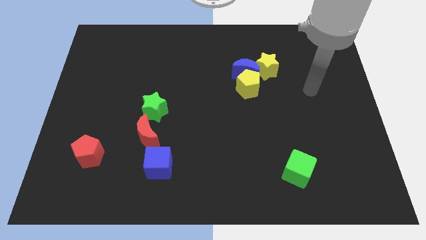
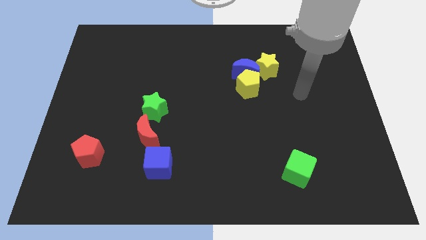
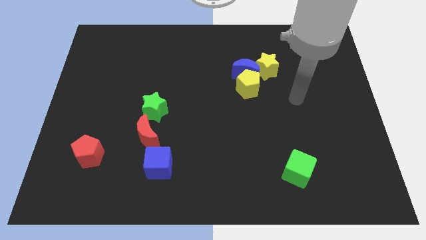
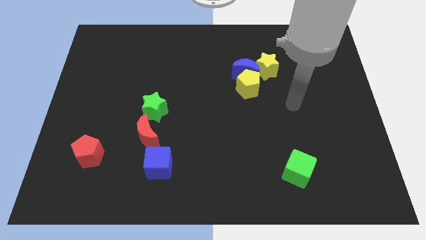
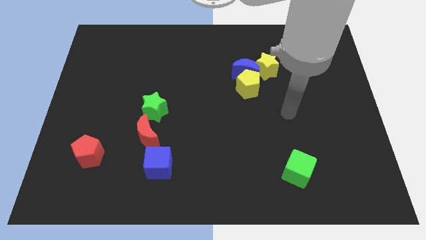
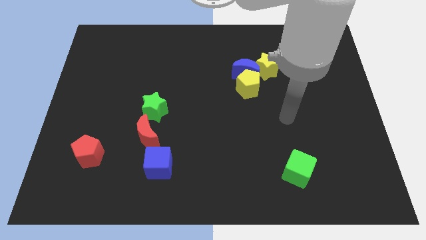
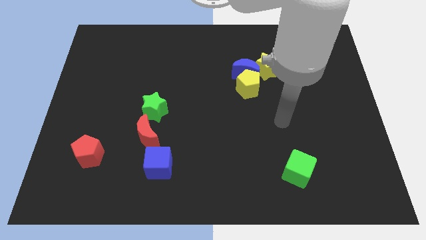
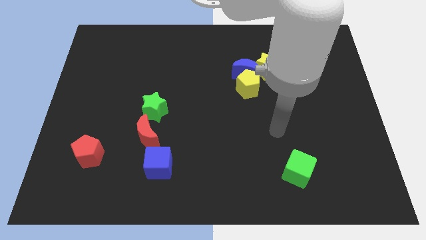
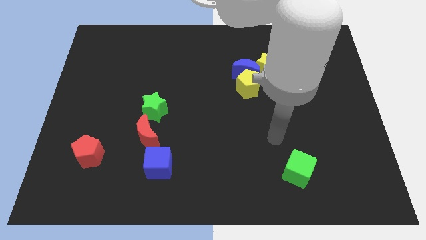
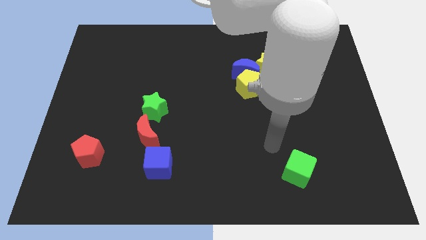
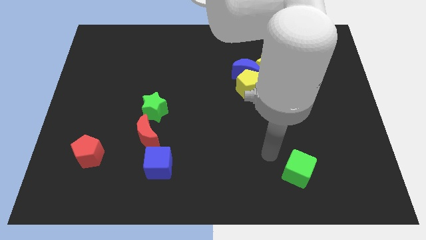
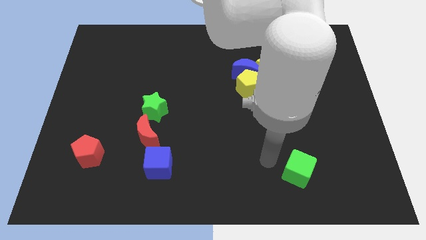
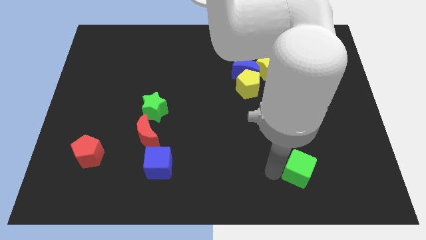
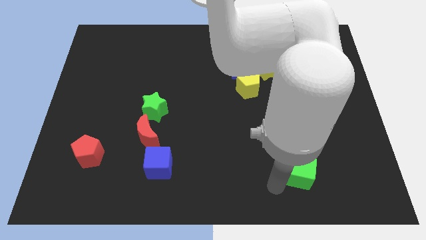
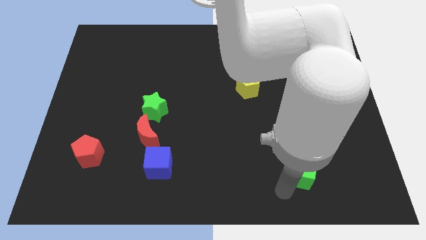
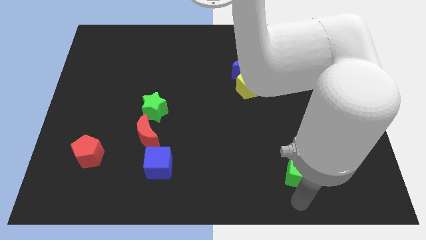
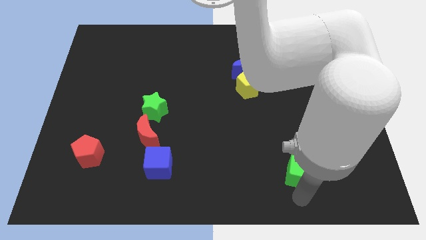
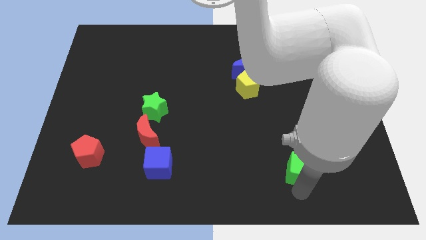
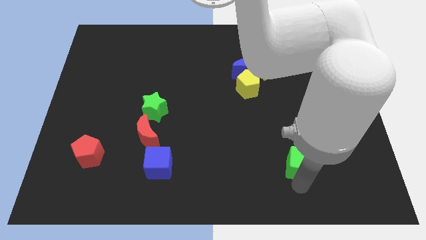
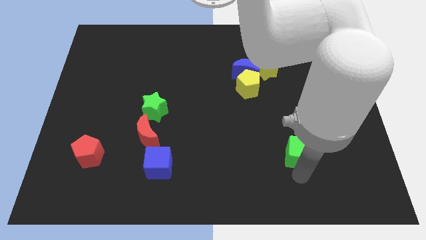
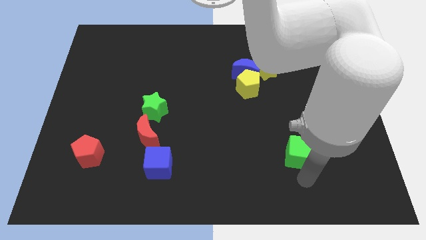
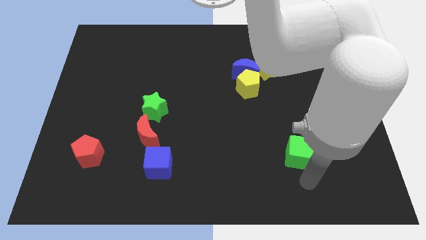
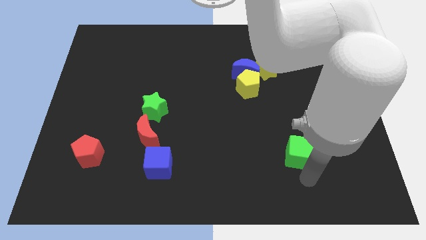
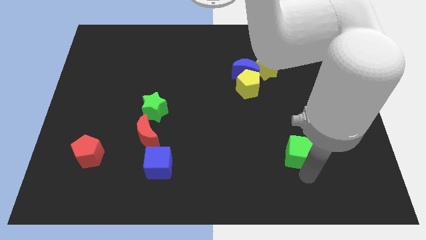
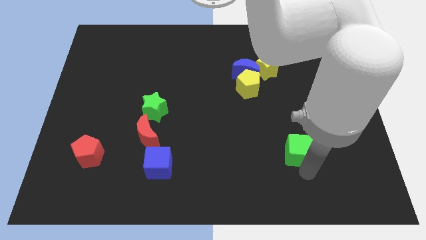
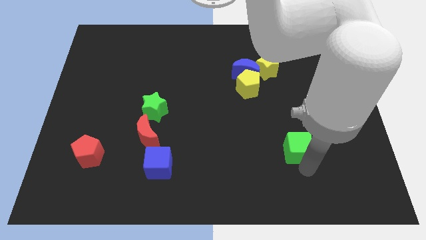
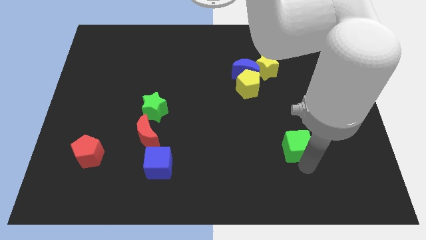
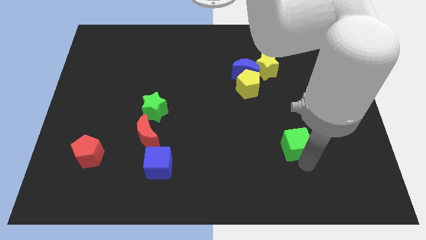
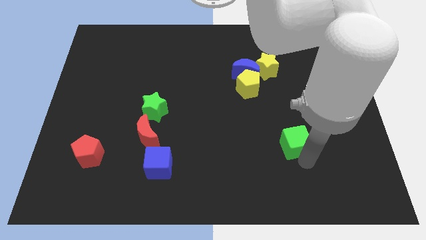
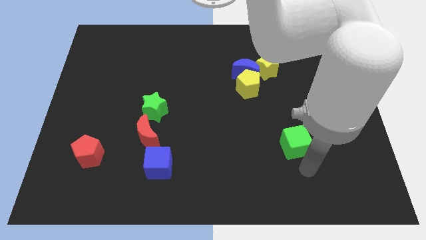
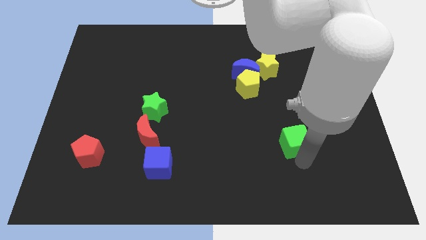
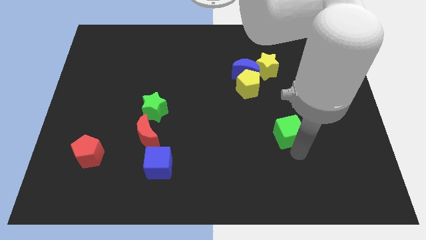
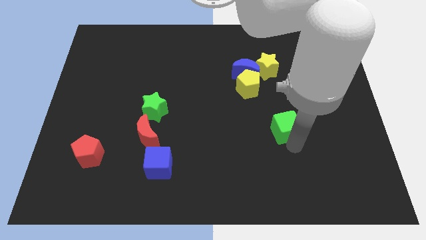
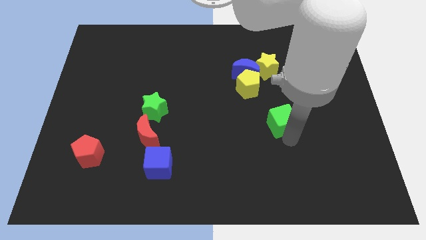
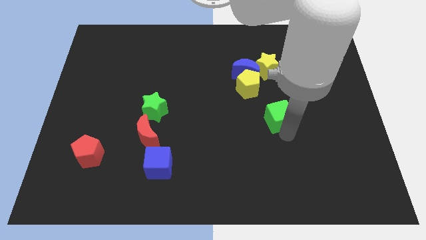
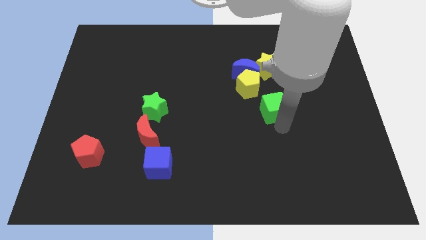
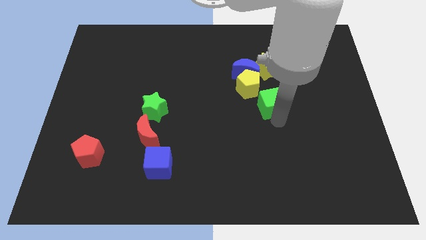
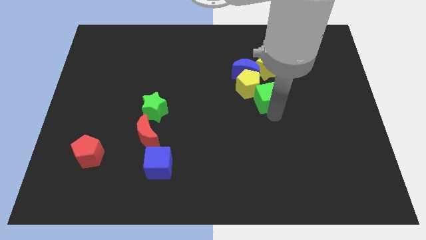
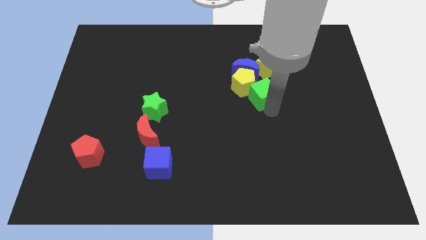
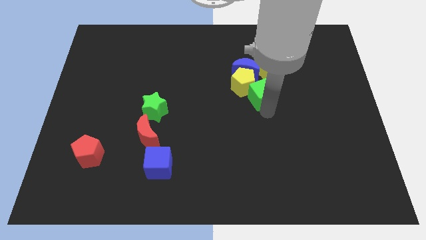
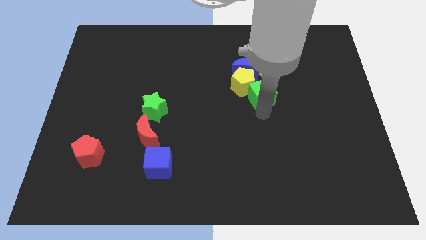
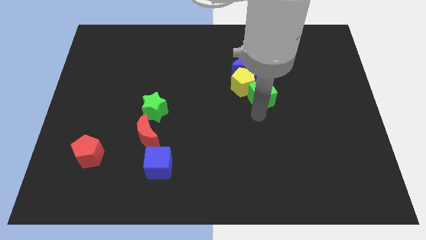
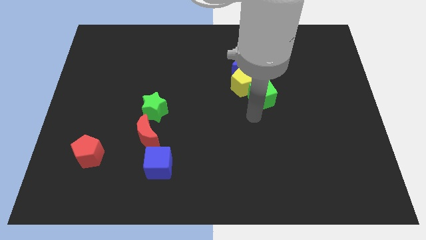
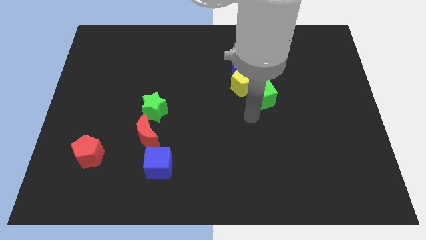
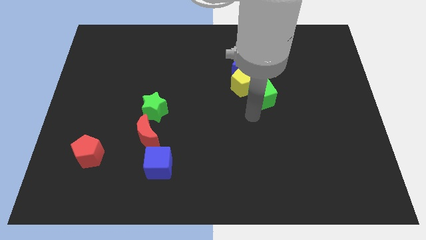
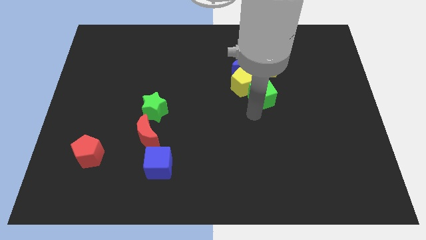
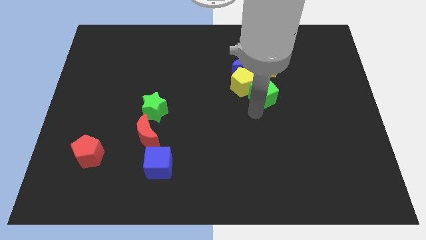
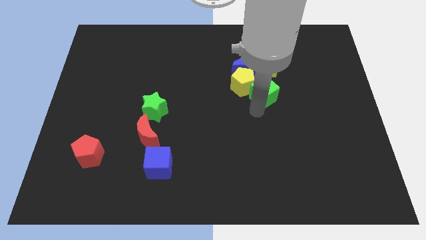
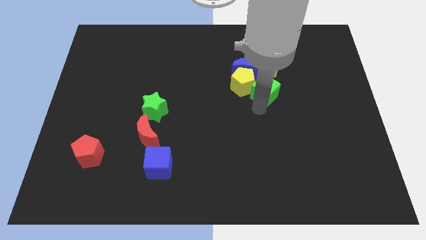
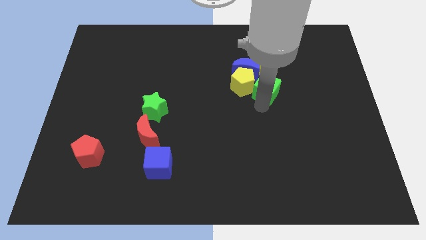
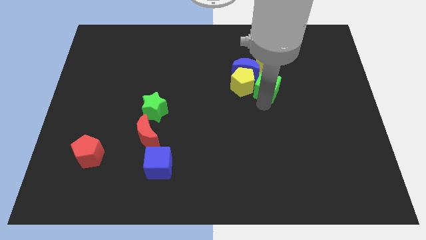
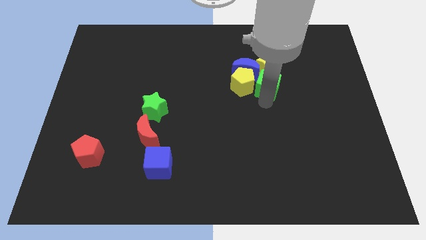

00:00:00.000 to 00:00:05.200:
move the green cube next to the yellow star

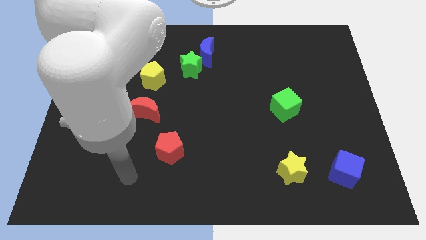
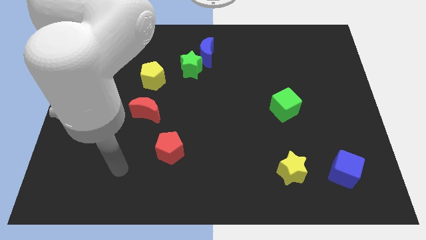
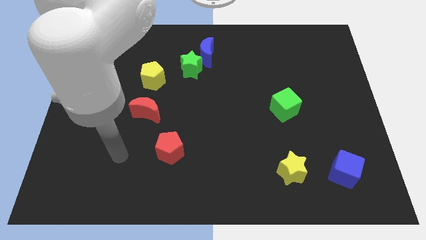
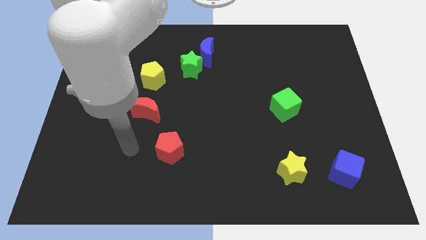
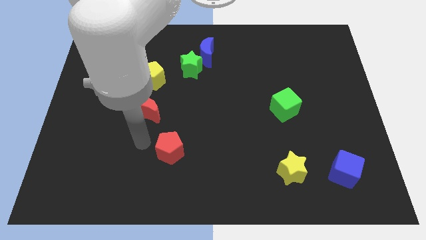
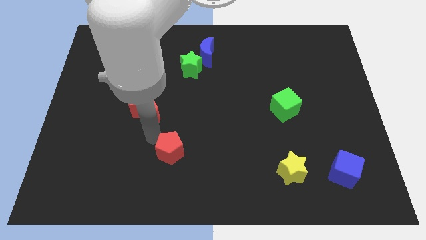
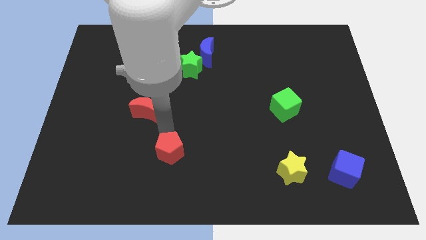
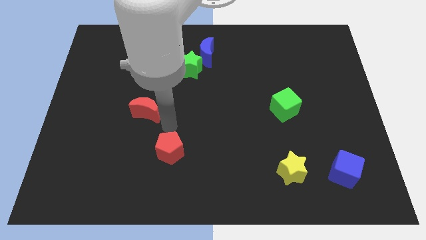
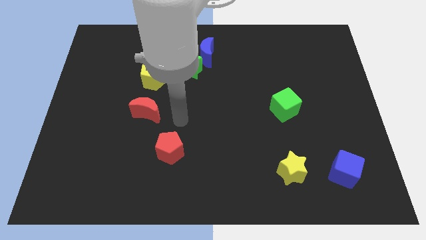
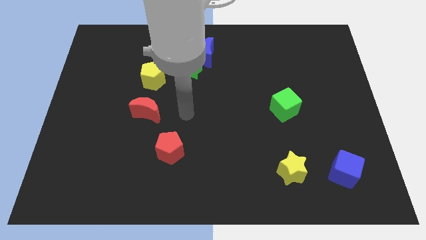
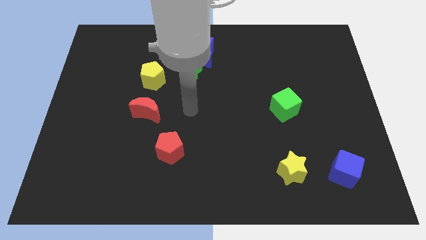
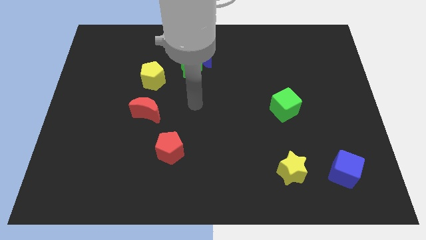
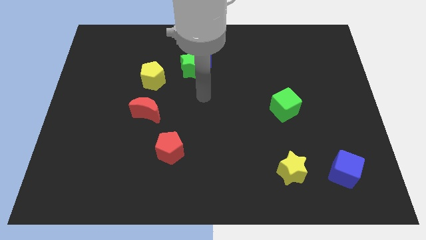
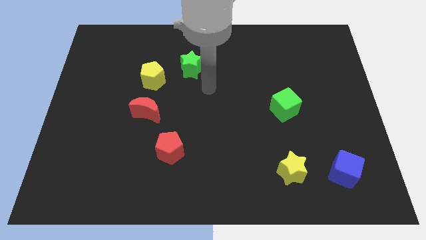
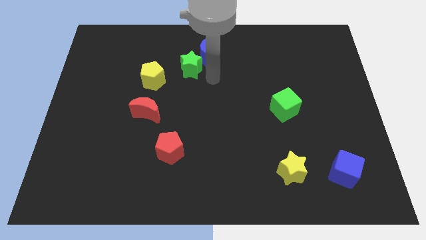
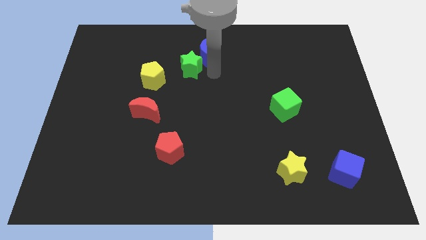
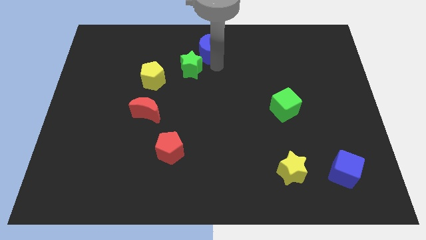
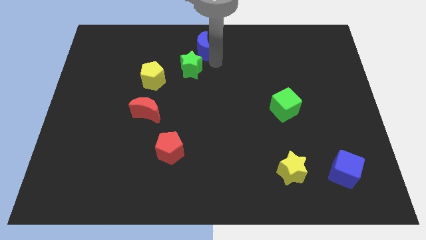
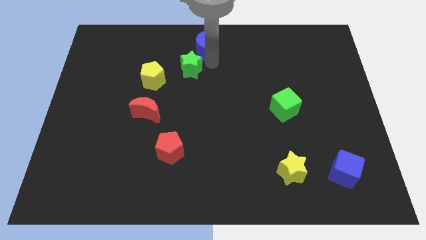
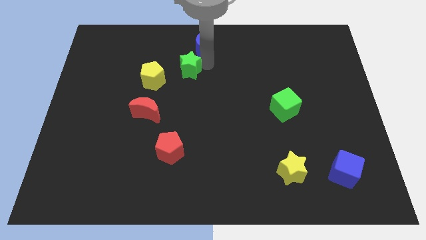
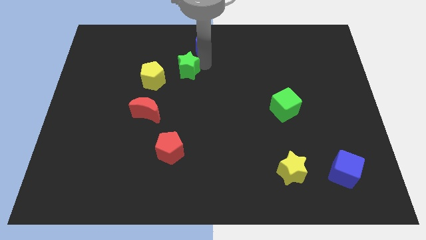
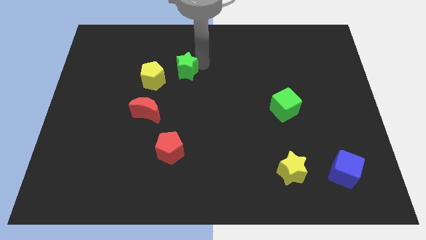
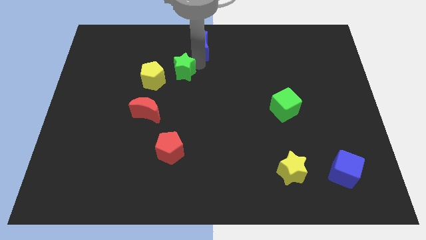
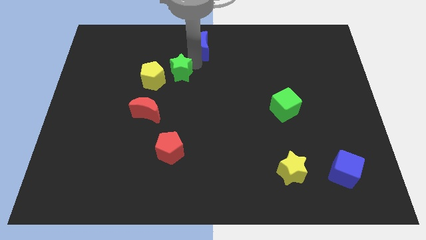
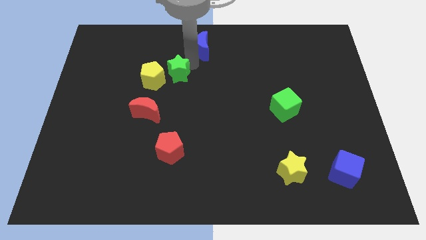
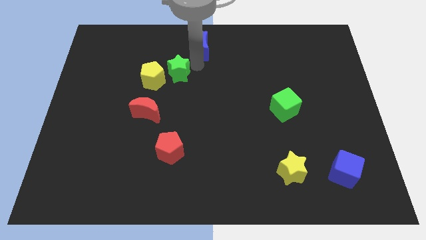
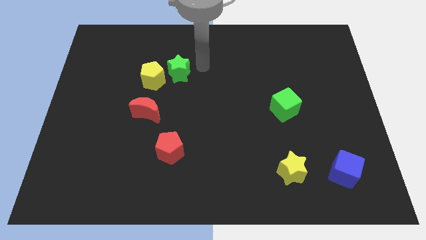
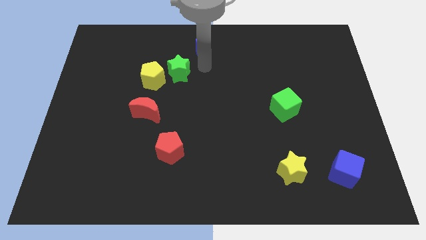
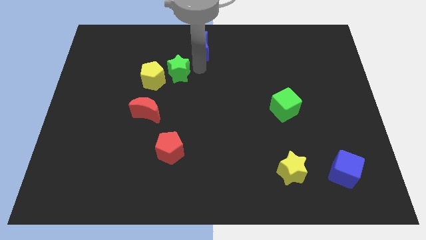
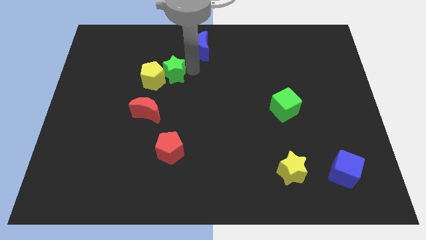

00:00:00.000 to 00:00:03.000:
push the green star to the yellow pentagon
